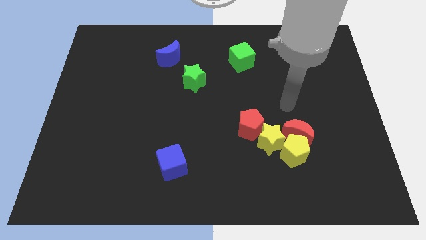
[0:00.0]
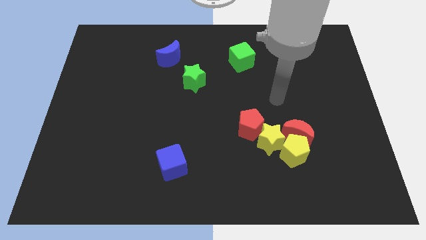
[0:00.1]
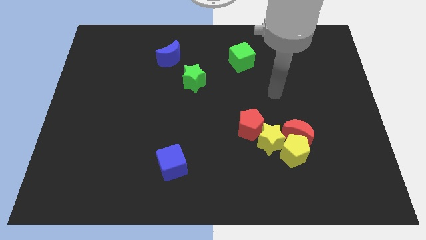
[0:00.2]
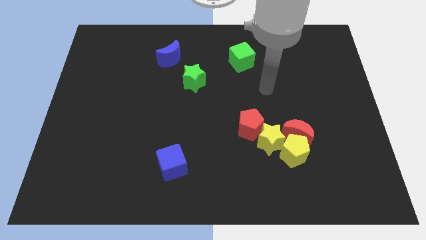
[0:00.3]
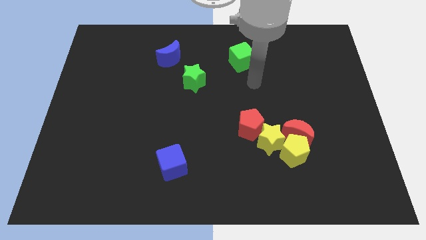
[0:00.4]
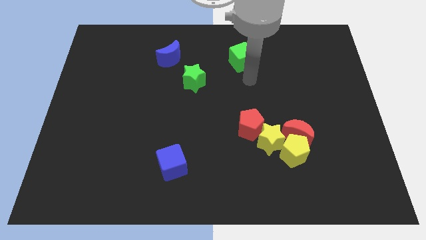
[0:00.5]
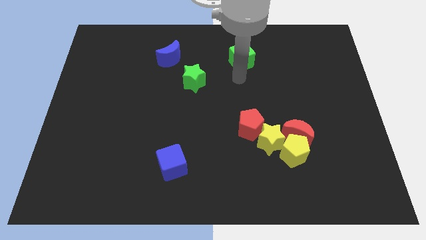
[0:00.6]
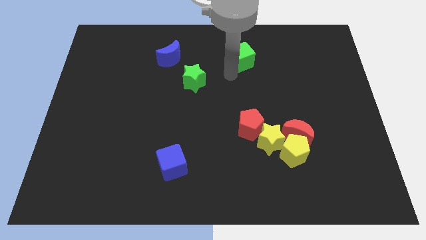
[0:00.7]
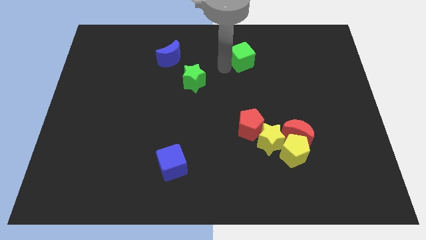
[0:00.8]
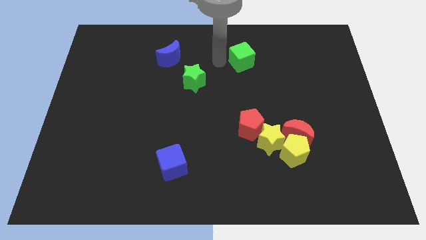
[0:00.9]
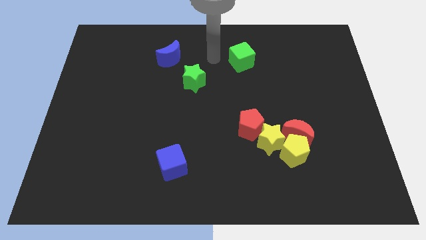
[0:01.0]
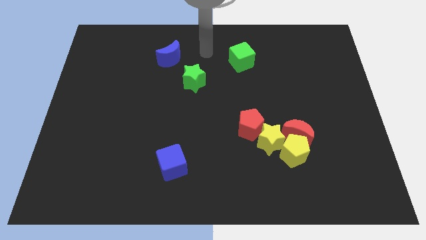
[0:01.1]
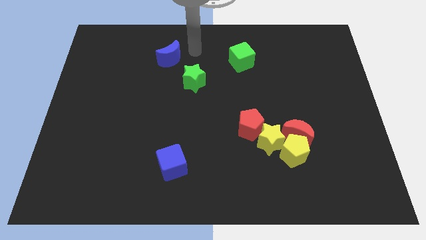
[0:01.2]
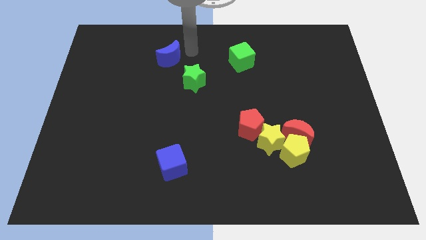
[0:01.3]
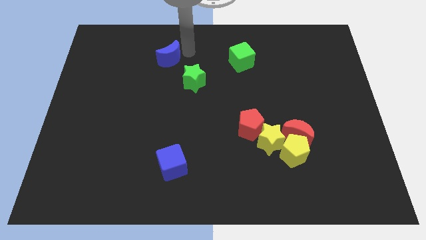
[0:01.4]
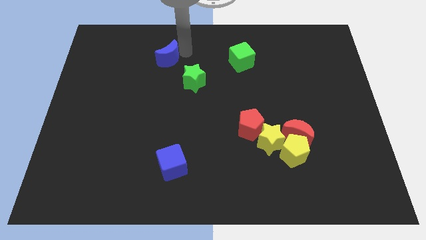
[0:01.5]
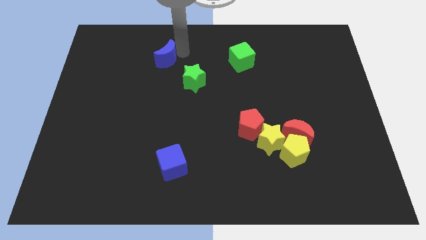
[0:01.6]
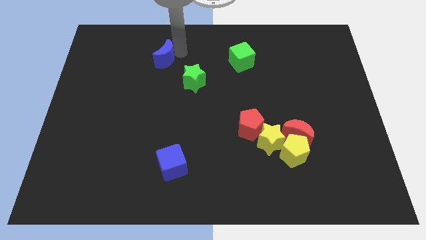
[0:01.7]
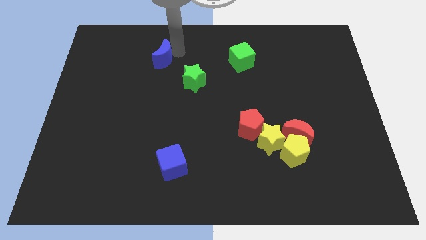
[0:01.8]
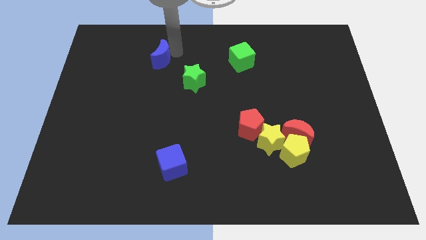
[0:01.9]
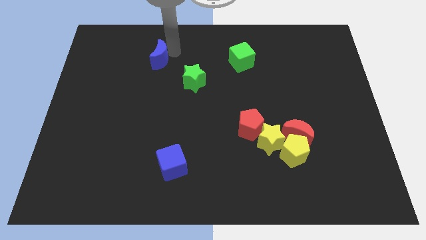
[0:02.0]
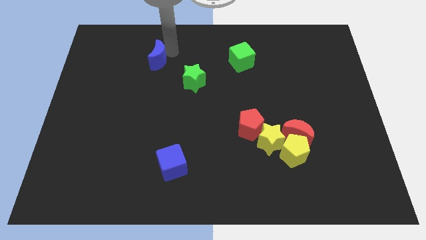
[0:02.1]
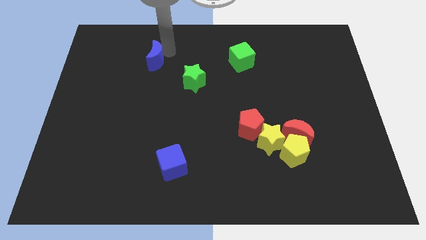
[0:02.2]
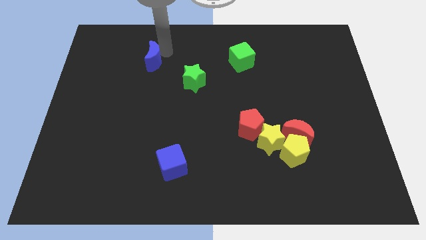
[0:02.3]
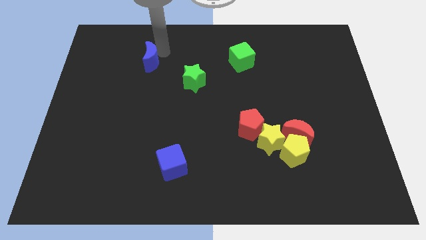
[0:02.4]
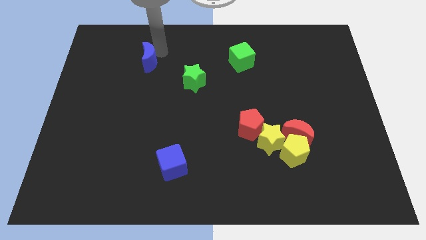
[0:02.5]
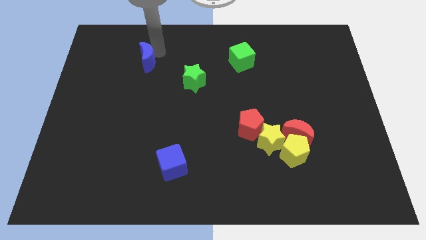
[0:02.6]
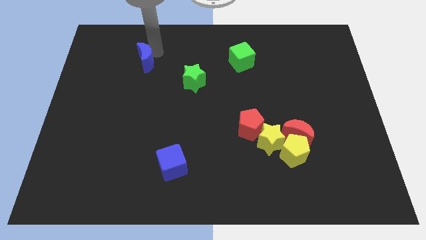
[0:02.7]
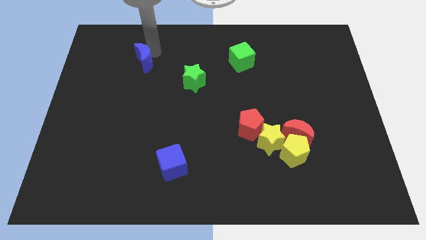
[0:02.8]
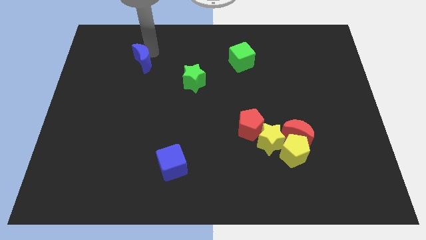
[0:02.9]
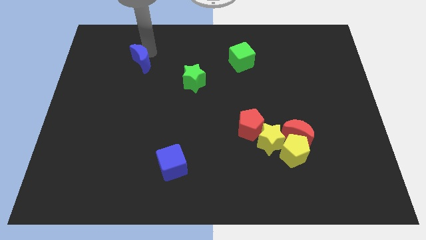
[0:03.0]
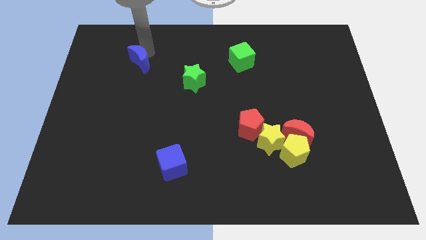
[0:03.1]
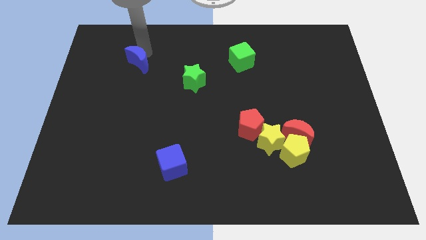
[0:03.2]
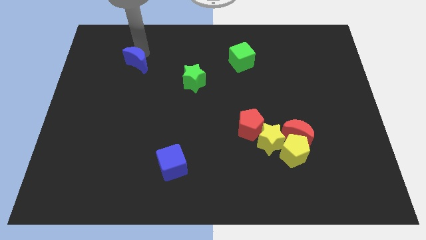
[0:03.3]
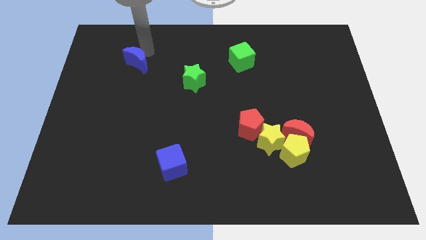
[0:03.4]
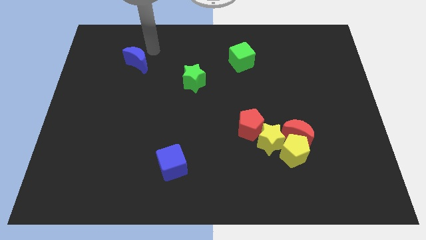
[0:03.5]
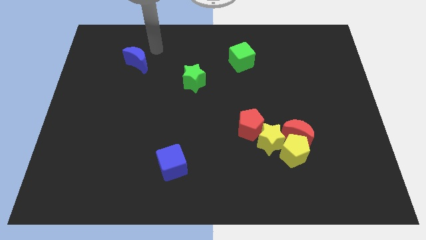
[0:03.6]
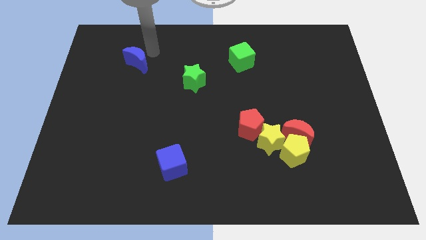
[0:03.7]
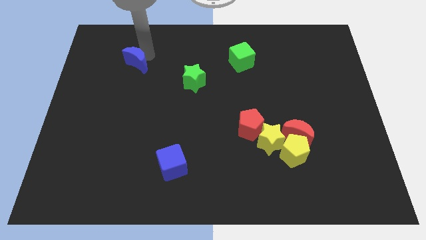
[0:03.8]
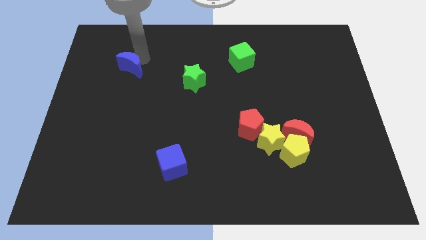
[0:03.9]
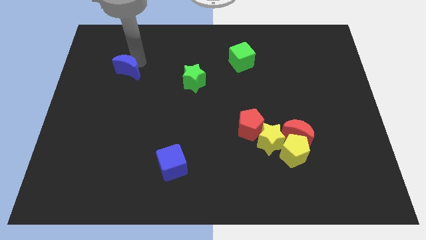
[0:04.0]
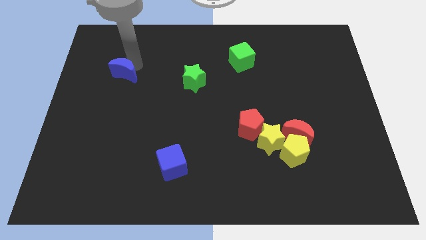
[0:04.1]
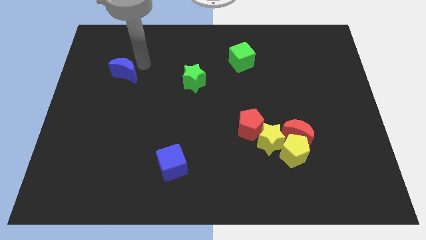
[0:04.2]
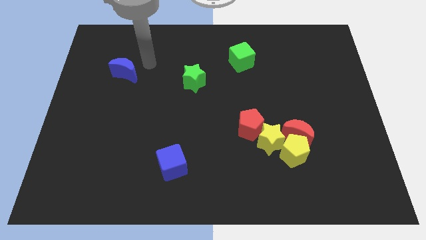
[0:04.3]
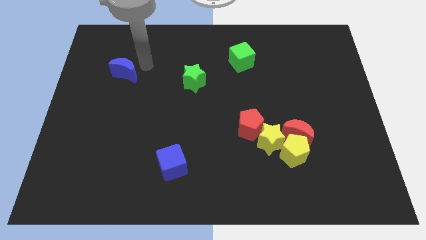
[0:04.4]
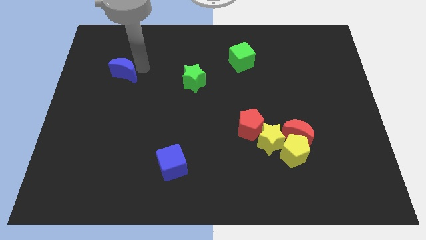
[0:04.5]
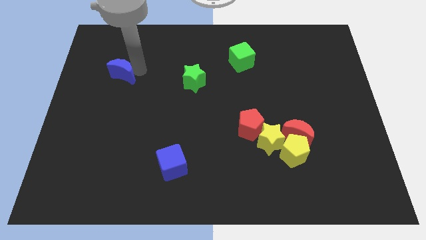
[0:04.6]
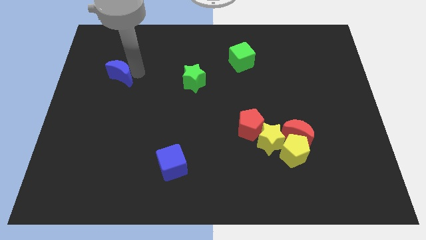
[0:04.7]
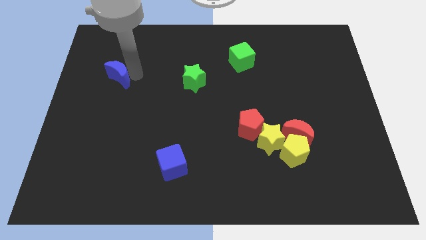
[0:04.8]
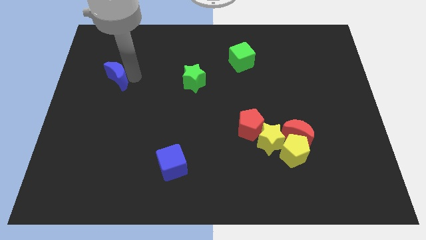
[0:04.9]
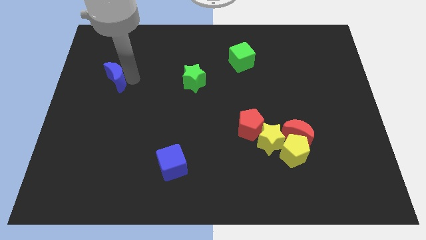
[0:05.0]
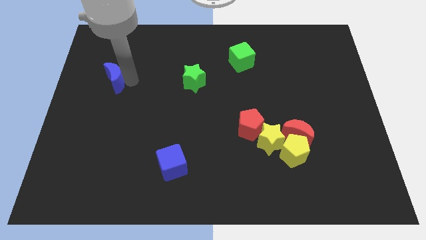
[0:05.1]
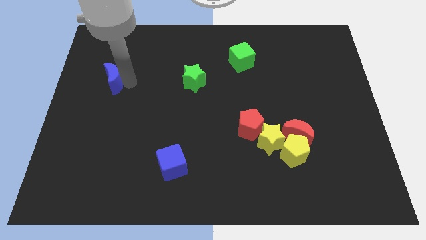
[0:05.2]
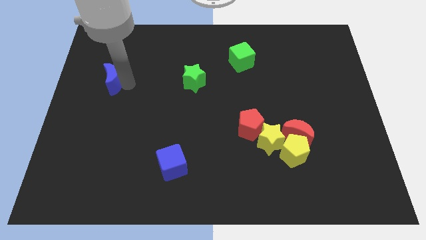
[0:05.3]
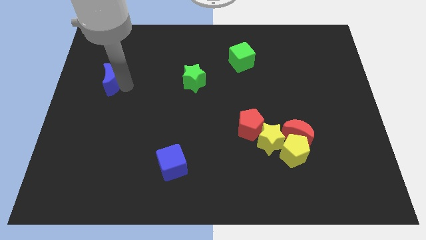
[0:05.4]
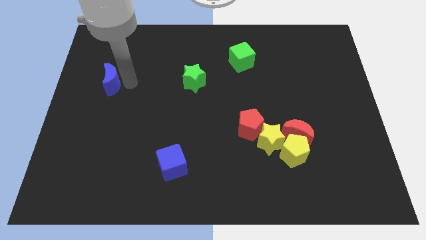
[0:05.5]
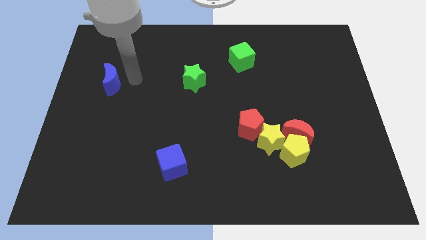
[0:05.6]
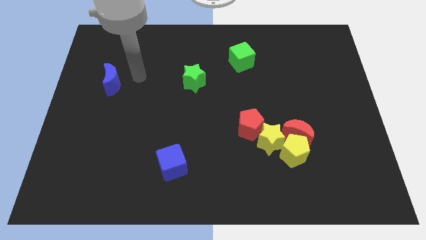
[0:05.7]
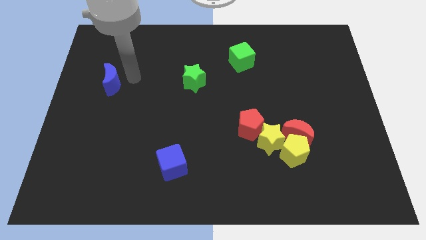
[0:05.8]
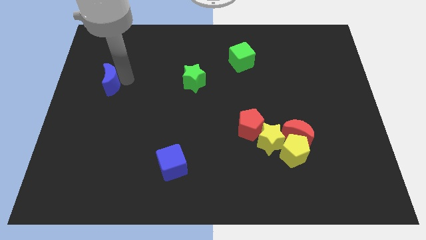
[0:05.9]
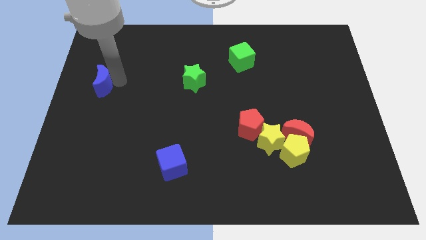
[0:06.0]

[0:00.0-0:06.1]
move the blue moon to the left side

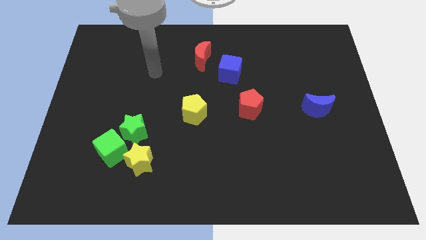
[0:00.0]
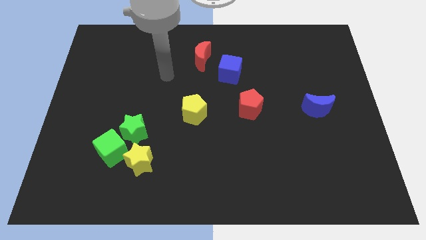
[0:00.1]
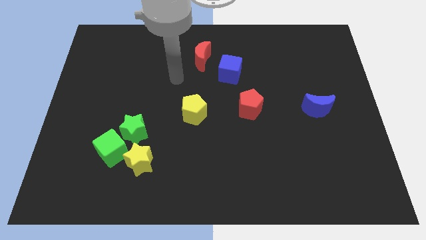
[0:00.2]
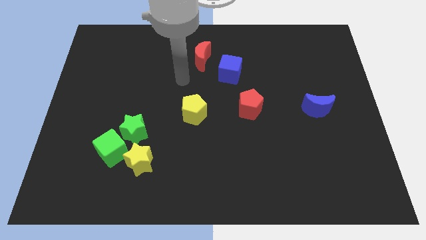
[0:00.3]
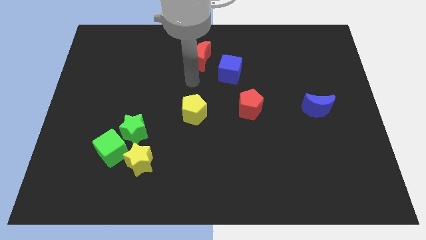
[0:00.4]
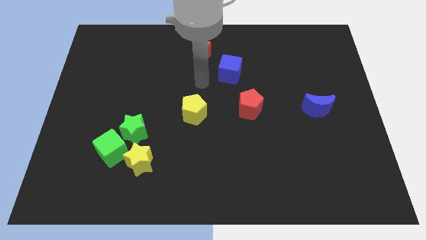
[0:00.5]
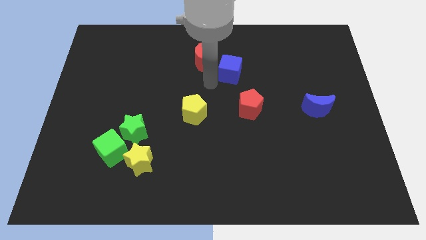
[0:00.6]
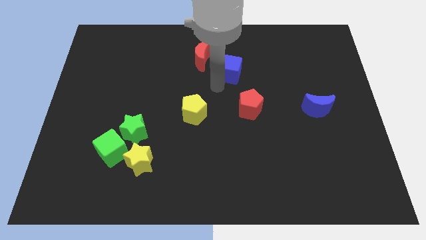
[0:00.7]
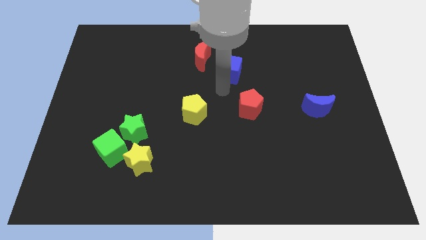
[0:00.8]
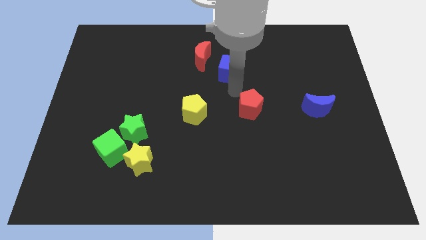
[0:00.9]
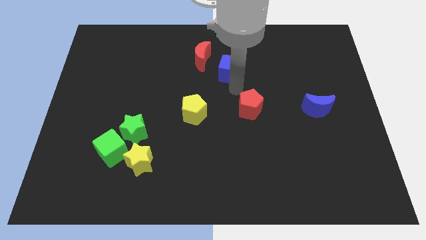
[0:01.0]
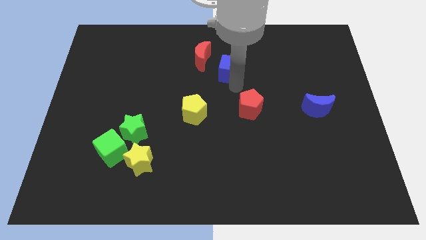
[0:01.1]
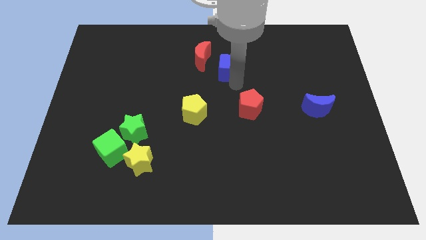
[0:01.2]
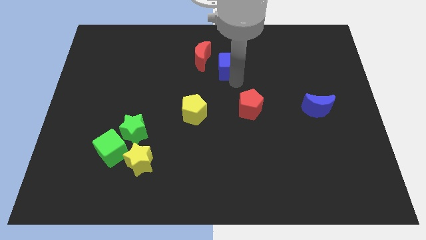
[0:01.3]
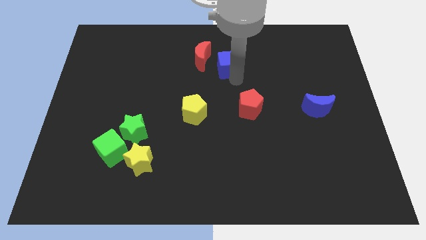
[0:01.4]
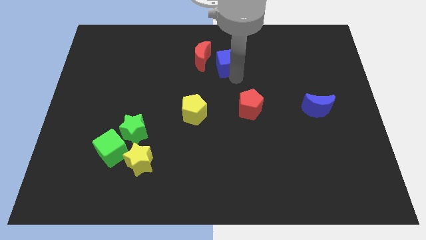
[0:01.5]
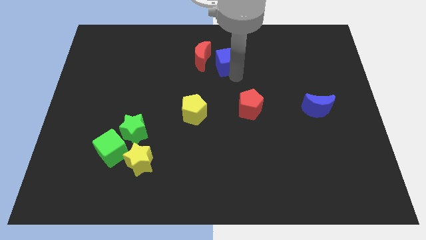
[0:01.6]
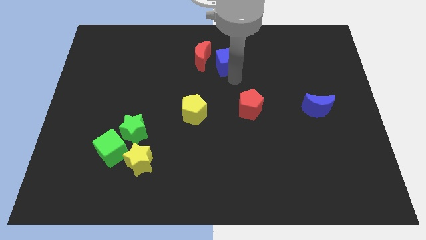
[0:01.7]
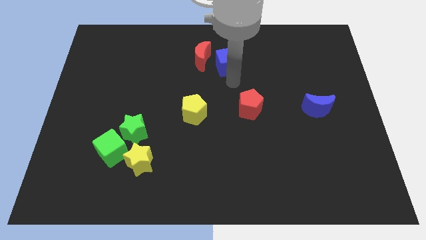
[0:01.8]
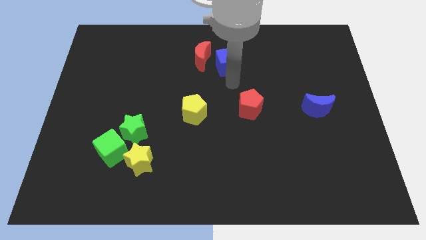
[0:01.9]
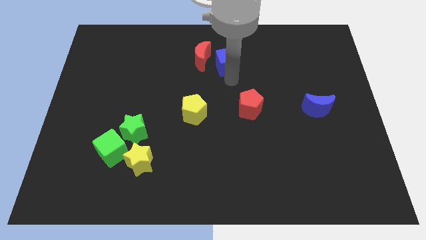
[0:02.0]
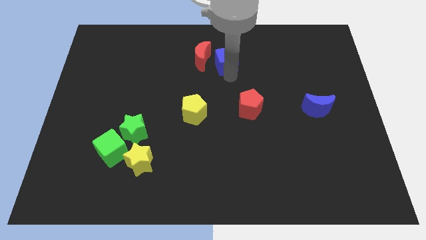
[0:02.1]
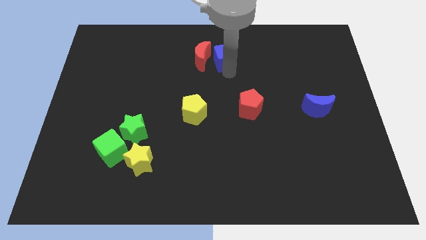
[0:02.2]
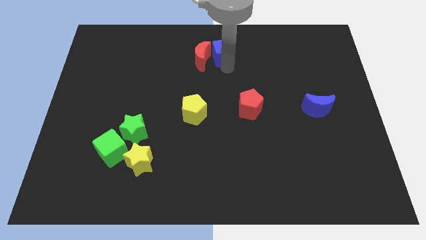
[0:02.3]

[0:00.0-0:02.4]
slide the blue cube to the top
